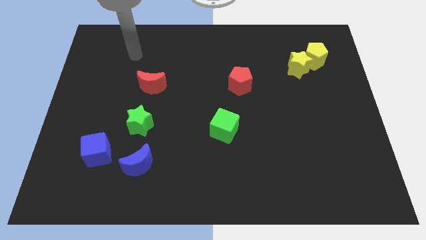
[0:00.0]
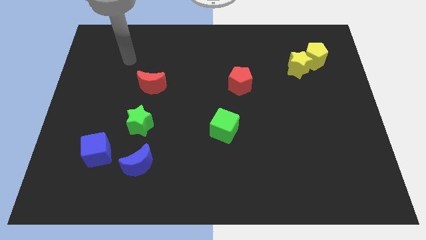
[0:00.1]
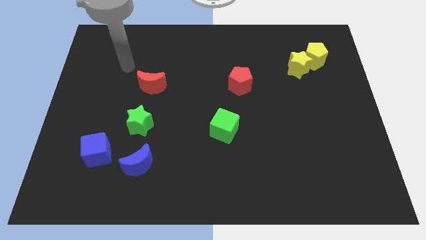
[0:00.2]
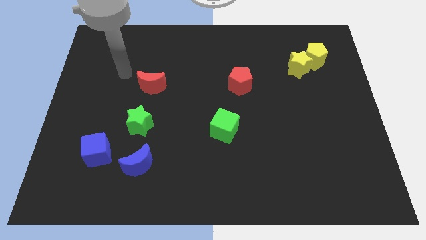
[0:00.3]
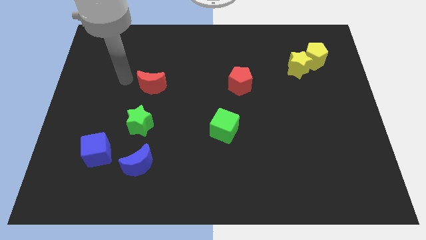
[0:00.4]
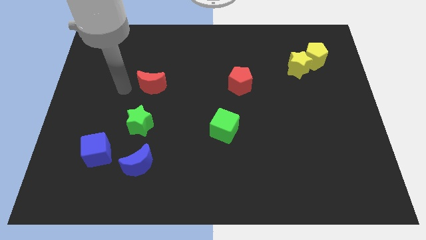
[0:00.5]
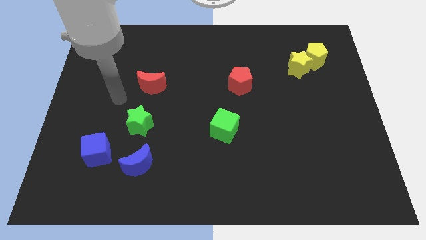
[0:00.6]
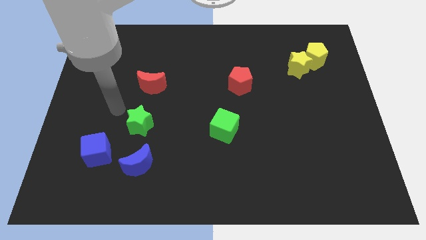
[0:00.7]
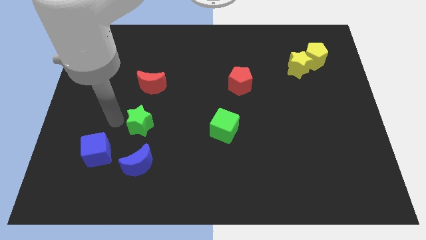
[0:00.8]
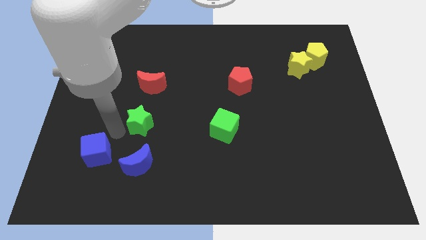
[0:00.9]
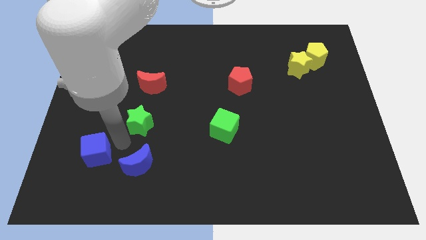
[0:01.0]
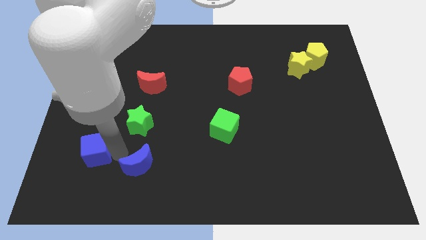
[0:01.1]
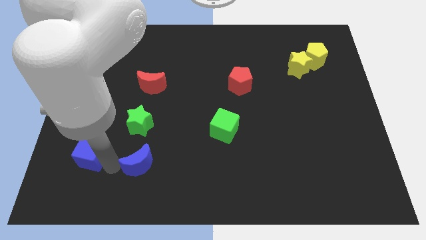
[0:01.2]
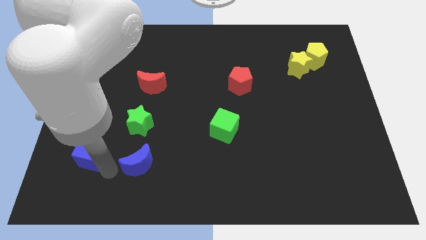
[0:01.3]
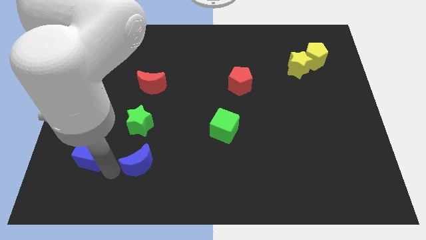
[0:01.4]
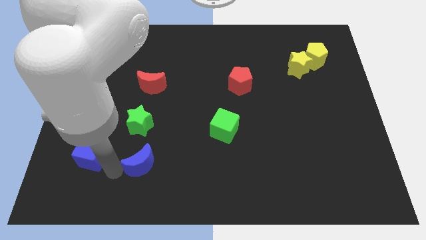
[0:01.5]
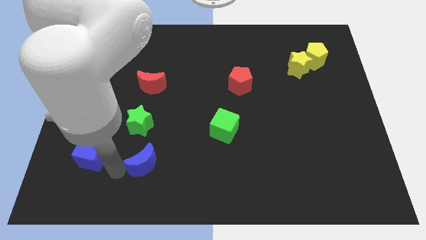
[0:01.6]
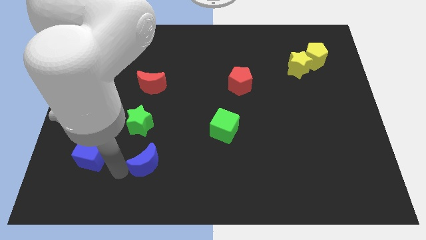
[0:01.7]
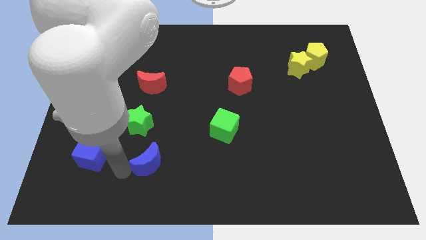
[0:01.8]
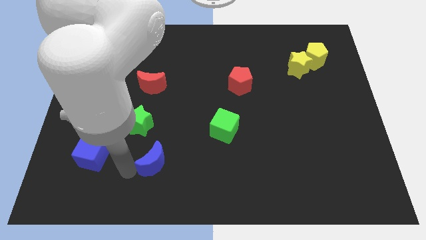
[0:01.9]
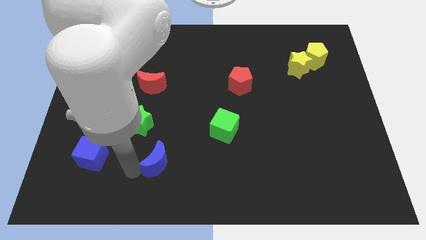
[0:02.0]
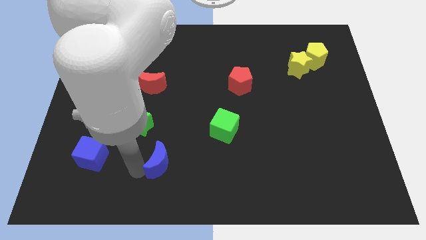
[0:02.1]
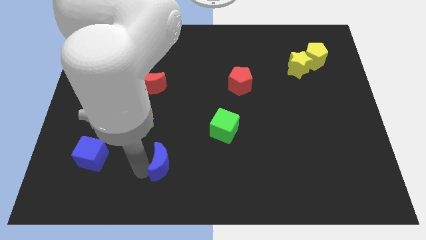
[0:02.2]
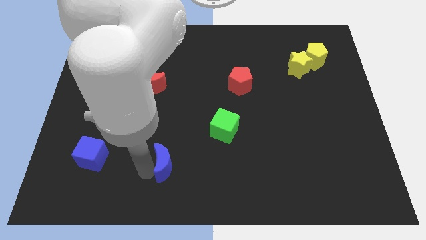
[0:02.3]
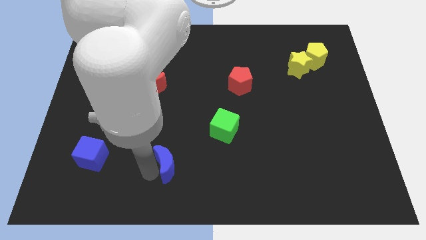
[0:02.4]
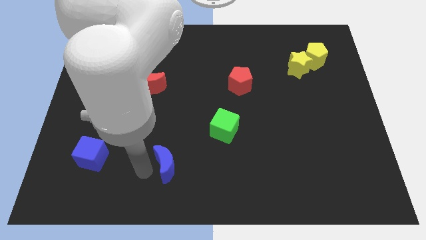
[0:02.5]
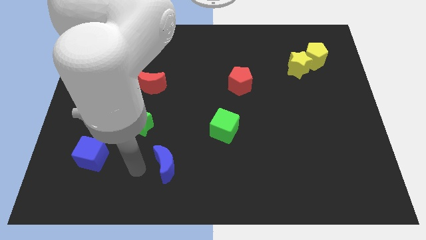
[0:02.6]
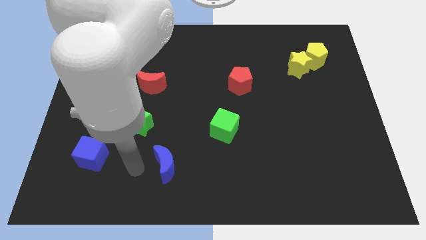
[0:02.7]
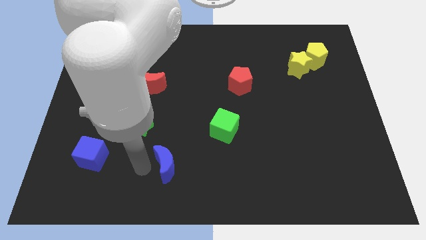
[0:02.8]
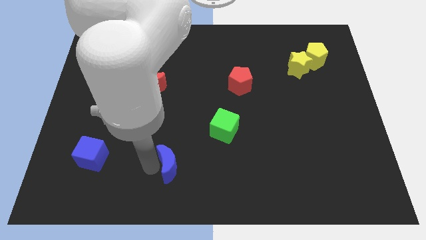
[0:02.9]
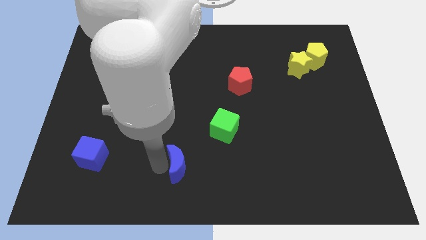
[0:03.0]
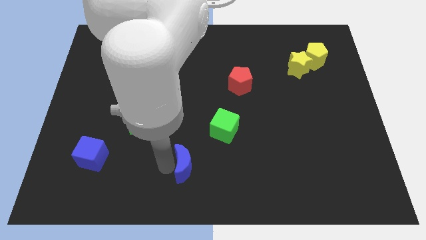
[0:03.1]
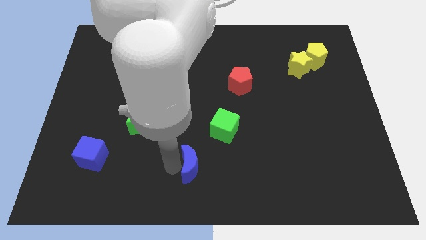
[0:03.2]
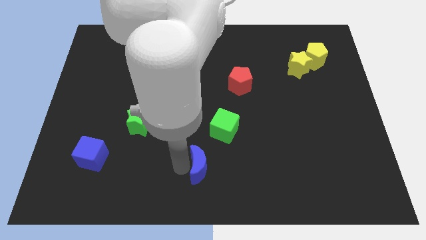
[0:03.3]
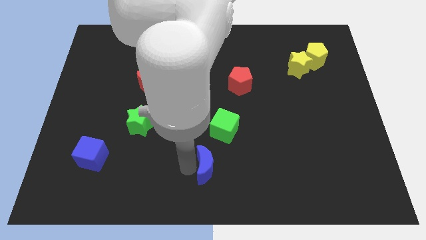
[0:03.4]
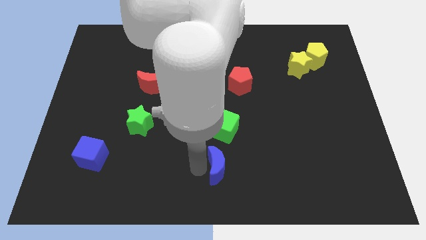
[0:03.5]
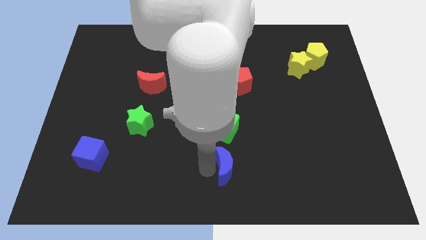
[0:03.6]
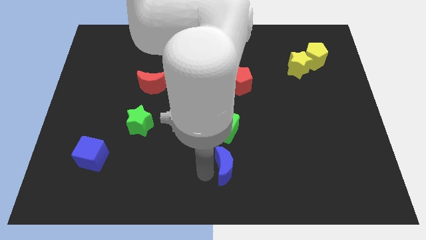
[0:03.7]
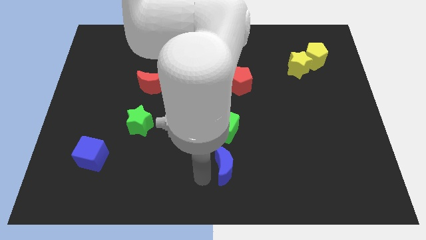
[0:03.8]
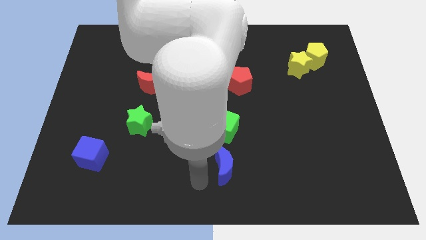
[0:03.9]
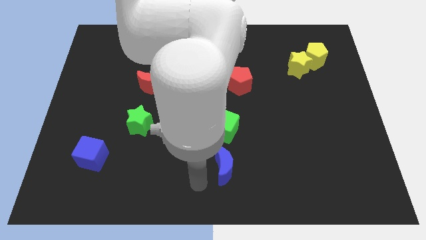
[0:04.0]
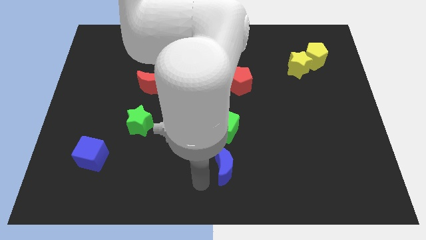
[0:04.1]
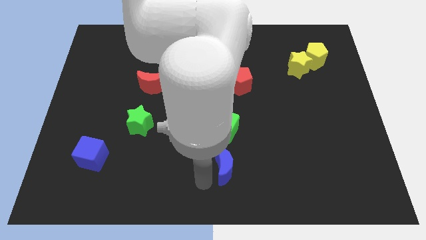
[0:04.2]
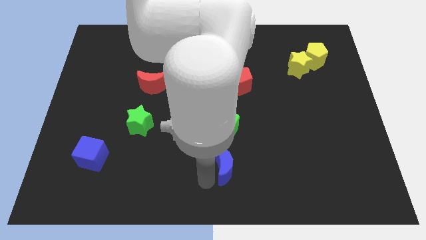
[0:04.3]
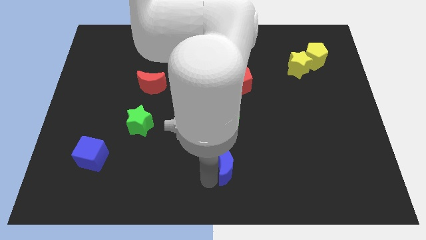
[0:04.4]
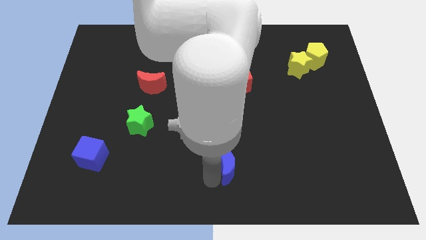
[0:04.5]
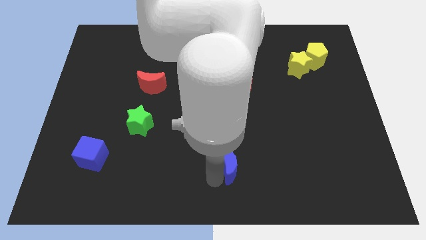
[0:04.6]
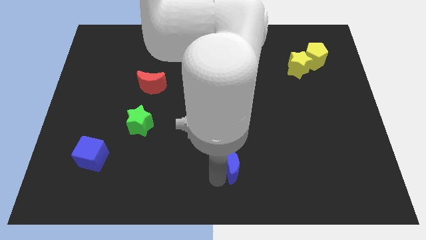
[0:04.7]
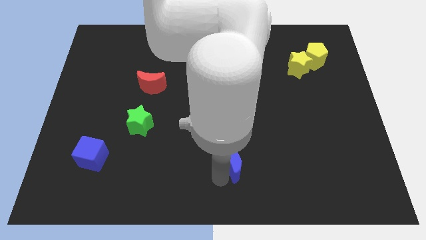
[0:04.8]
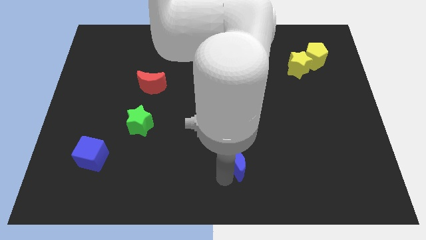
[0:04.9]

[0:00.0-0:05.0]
move the blue moon right

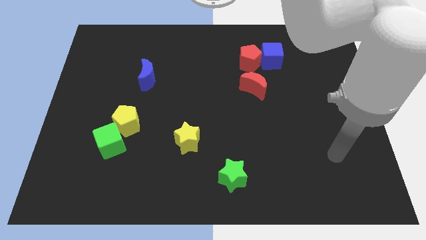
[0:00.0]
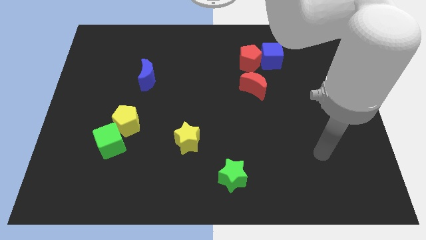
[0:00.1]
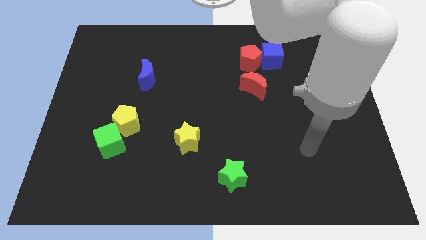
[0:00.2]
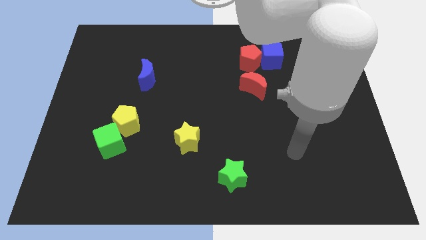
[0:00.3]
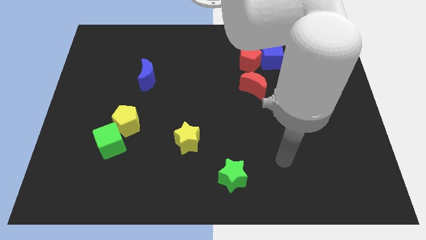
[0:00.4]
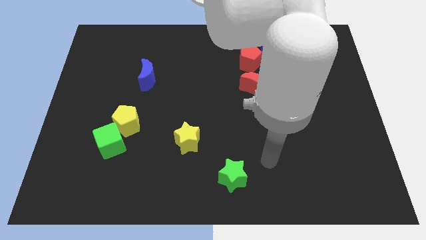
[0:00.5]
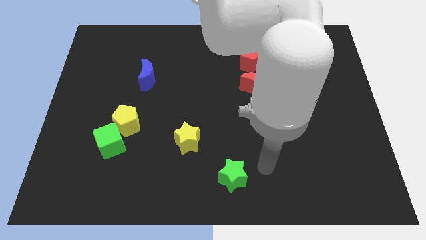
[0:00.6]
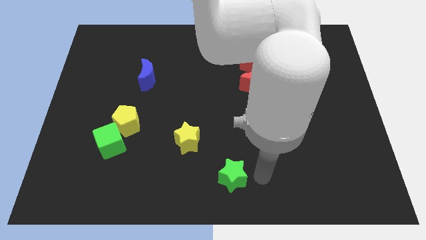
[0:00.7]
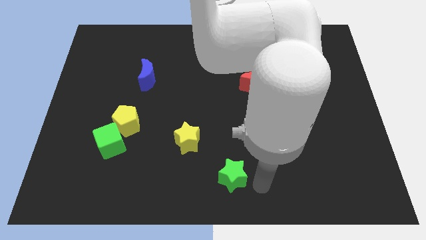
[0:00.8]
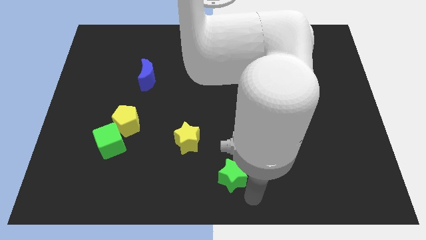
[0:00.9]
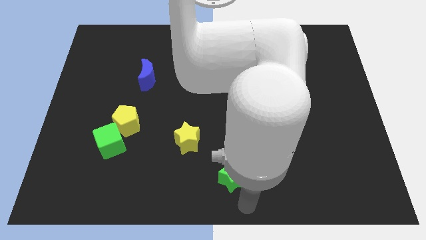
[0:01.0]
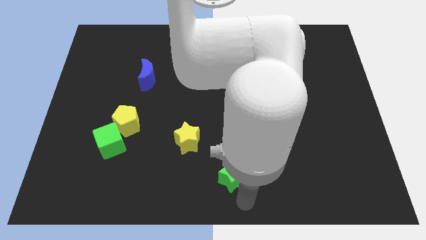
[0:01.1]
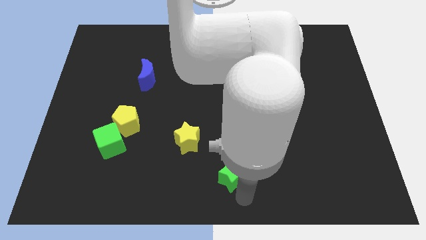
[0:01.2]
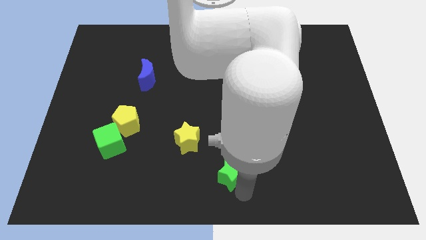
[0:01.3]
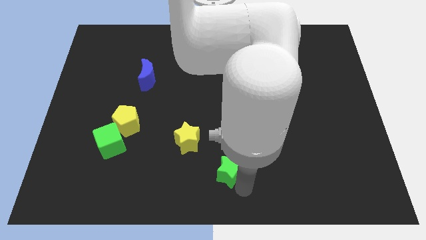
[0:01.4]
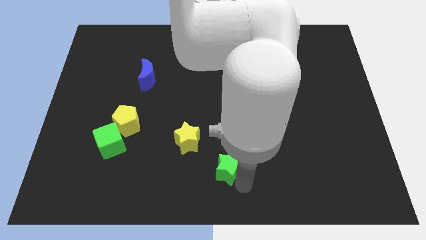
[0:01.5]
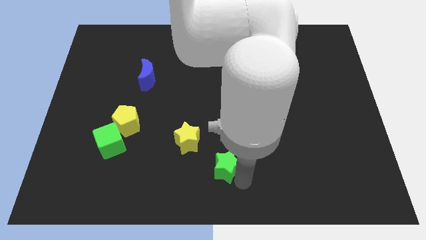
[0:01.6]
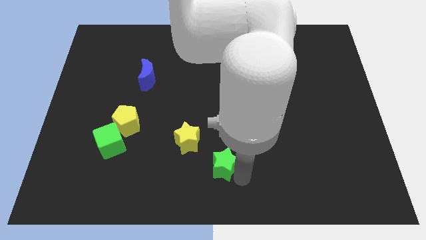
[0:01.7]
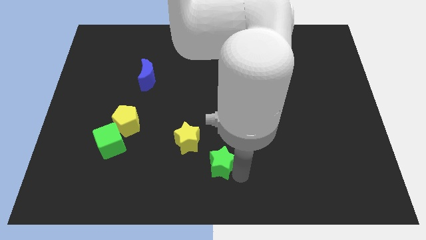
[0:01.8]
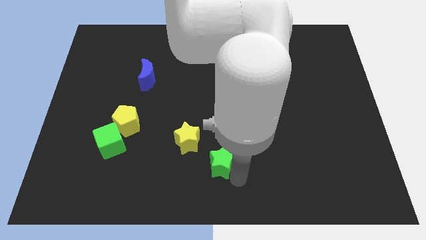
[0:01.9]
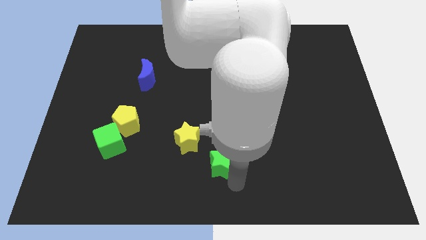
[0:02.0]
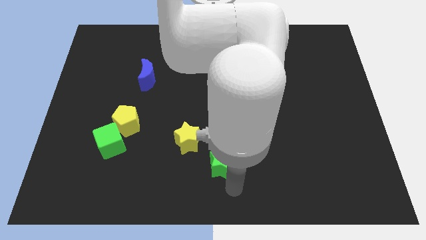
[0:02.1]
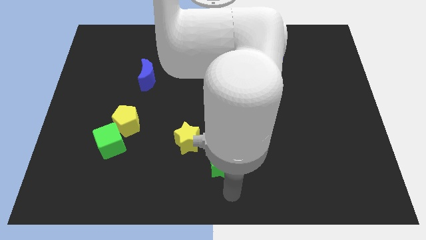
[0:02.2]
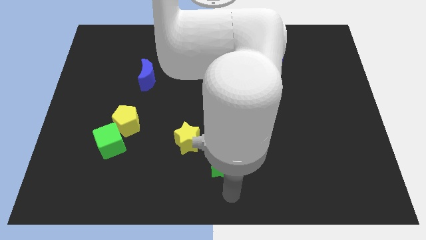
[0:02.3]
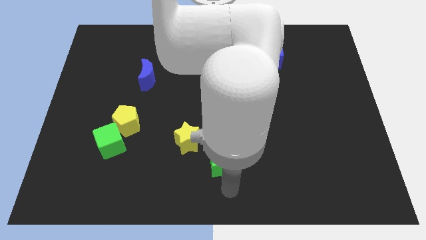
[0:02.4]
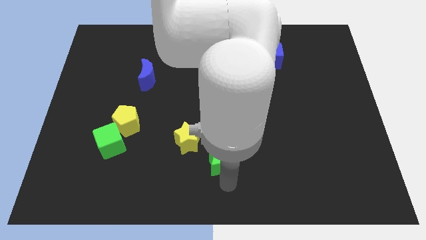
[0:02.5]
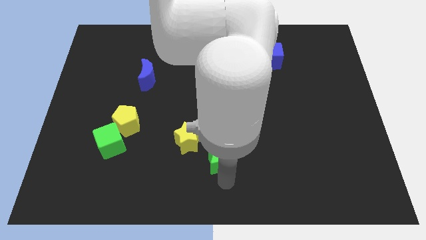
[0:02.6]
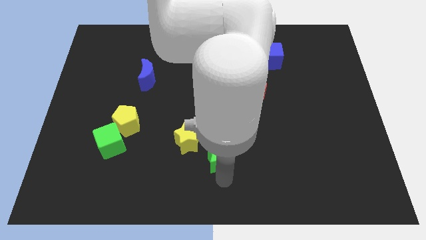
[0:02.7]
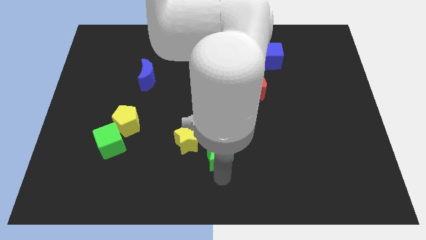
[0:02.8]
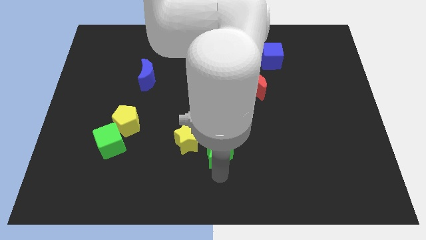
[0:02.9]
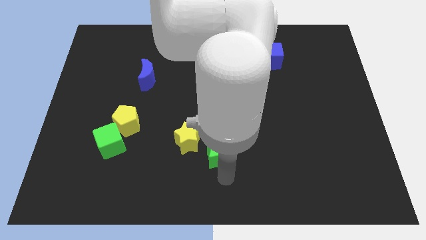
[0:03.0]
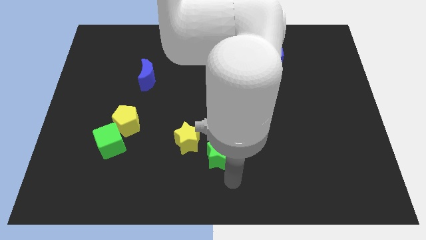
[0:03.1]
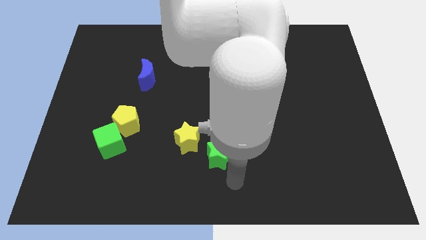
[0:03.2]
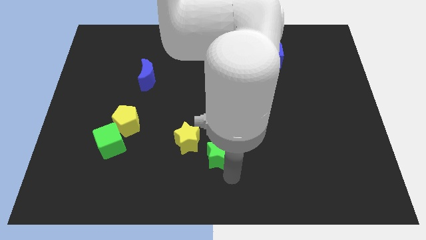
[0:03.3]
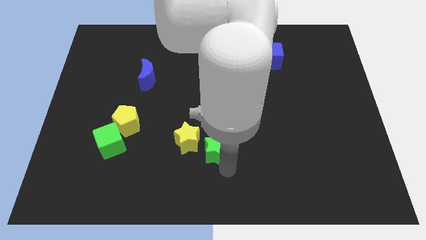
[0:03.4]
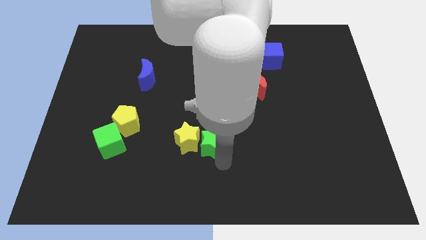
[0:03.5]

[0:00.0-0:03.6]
move the green star a little bit upwards and then to the left
